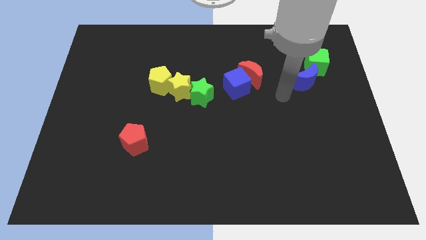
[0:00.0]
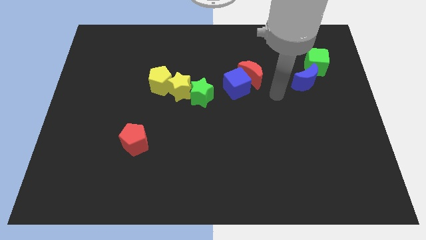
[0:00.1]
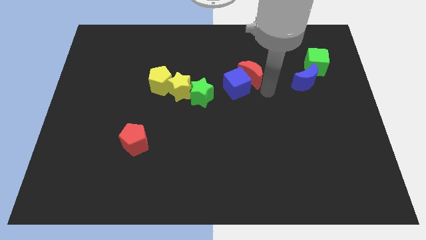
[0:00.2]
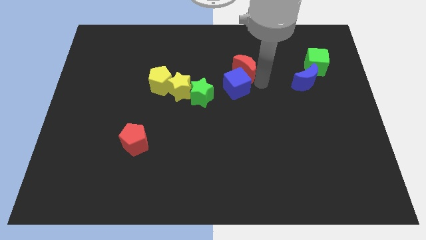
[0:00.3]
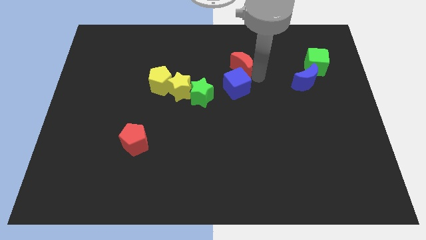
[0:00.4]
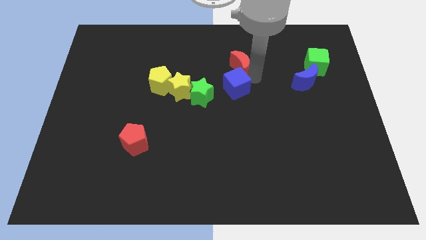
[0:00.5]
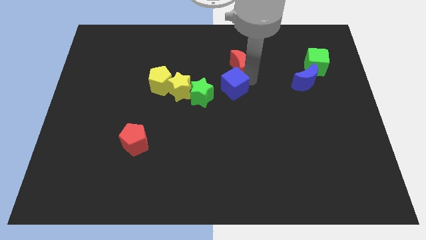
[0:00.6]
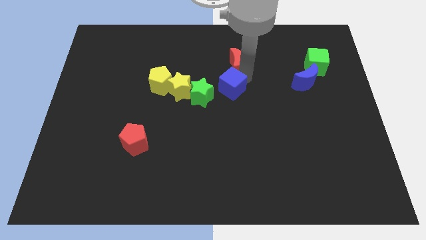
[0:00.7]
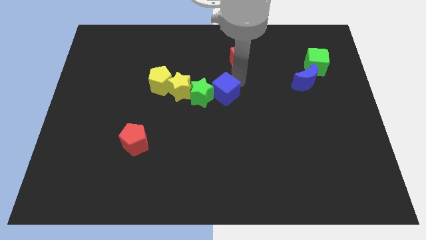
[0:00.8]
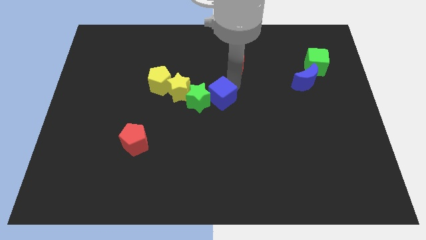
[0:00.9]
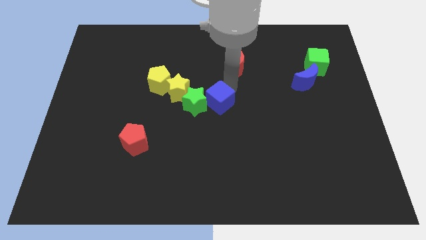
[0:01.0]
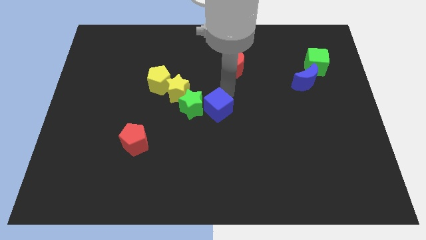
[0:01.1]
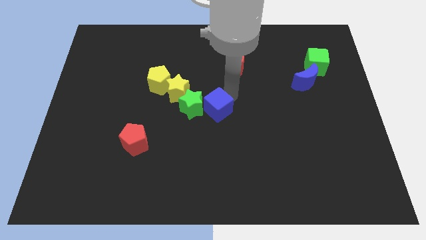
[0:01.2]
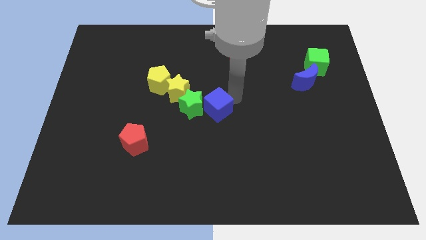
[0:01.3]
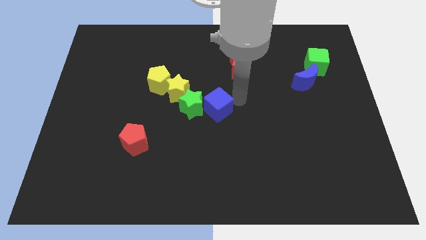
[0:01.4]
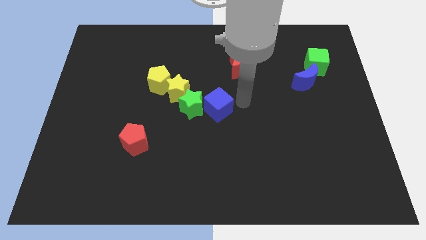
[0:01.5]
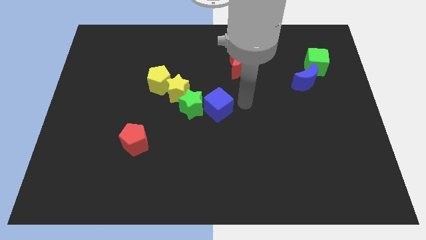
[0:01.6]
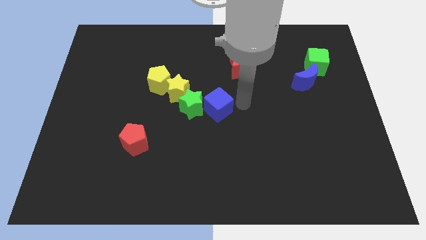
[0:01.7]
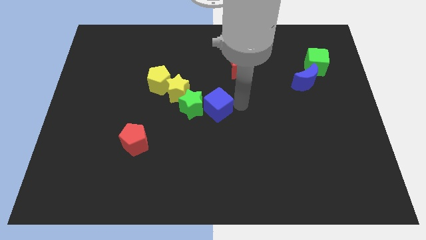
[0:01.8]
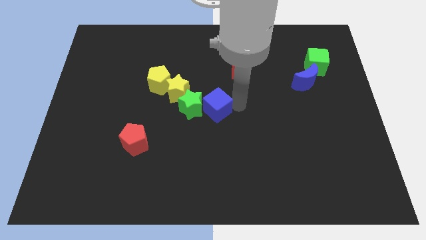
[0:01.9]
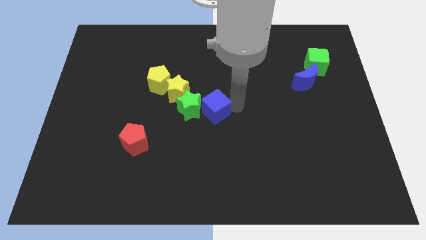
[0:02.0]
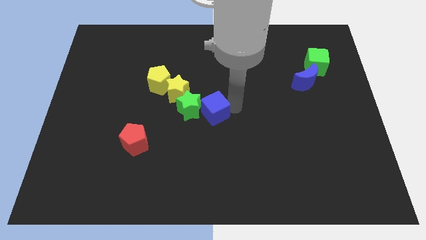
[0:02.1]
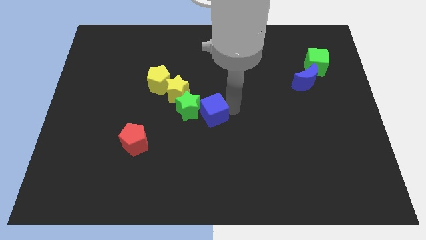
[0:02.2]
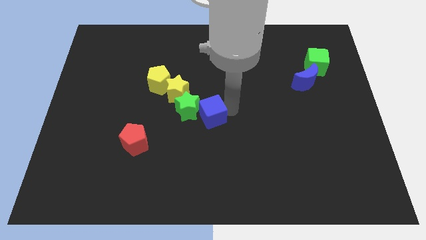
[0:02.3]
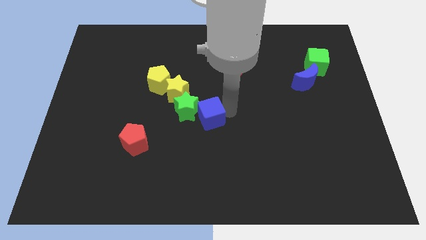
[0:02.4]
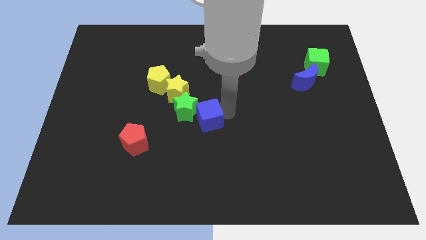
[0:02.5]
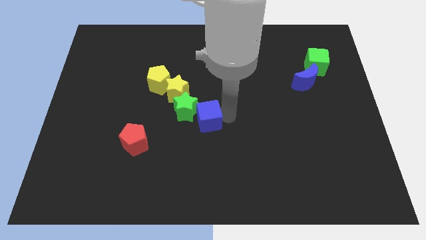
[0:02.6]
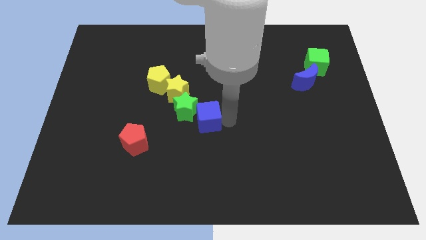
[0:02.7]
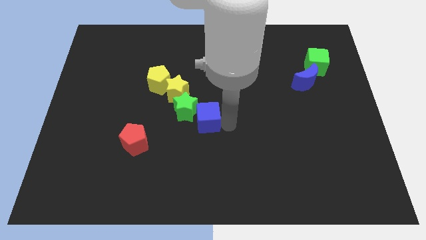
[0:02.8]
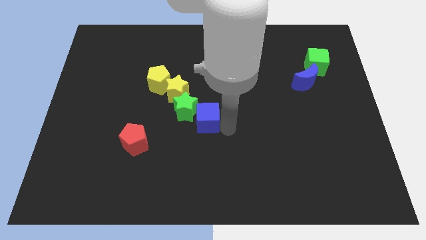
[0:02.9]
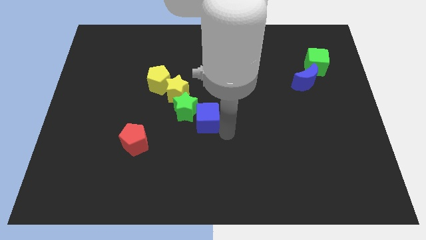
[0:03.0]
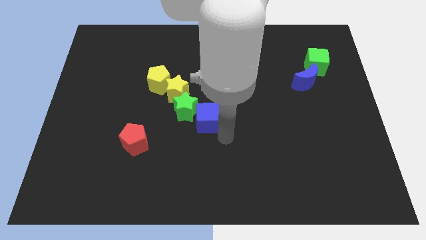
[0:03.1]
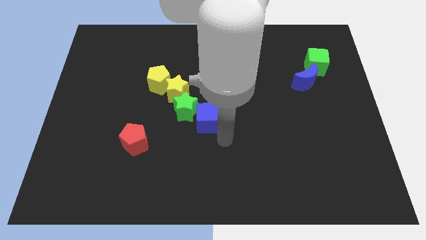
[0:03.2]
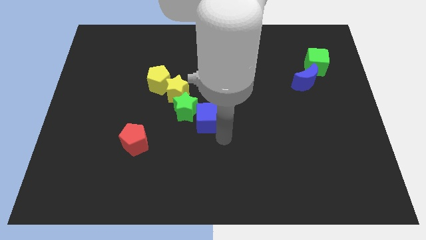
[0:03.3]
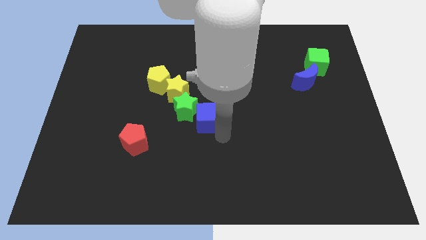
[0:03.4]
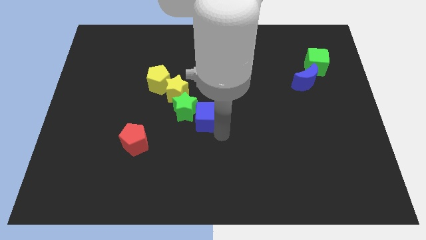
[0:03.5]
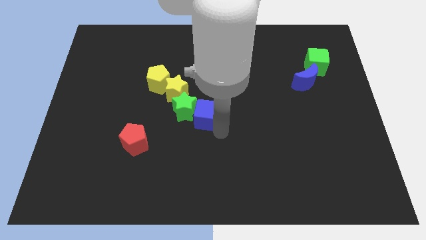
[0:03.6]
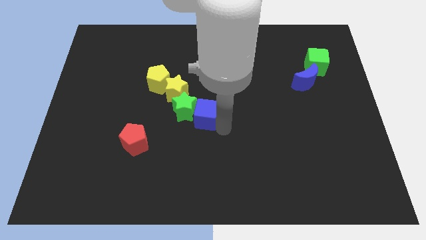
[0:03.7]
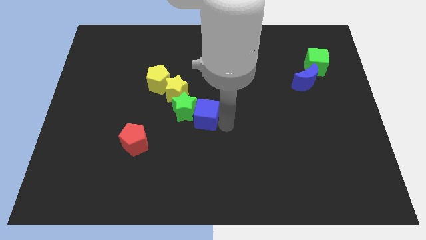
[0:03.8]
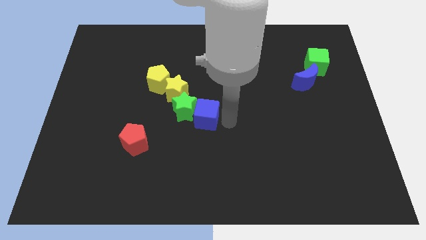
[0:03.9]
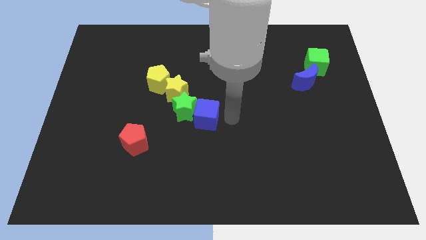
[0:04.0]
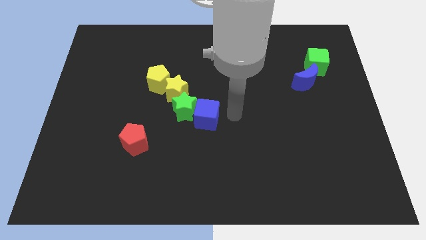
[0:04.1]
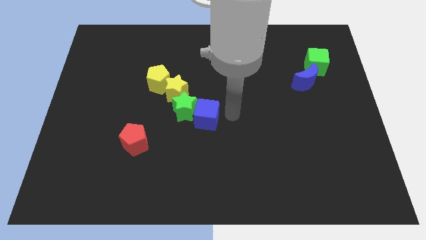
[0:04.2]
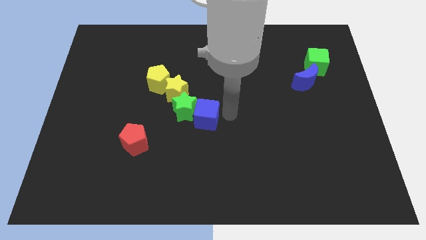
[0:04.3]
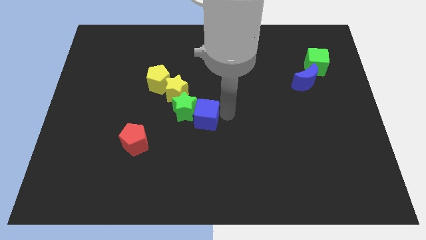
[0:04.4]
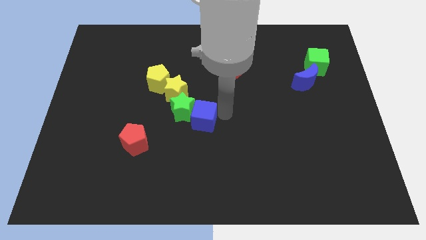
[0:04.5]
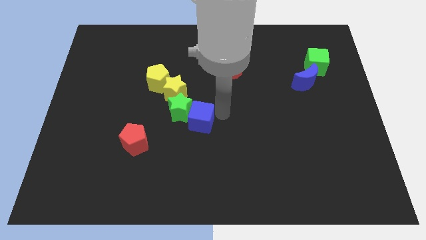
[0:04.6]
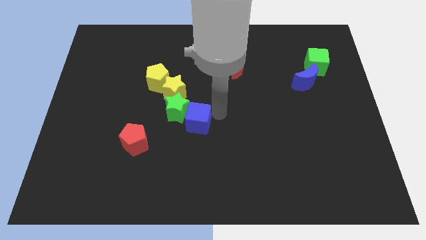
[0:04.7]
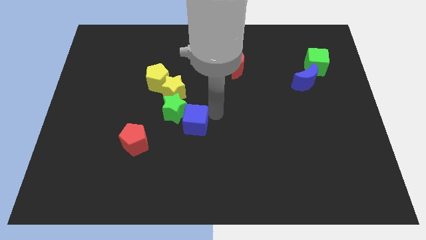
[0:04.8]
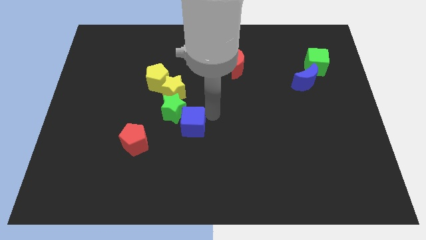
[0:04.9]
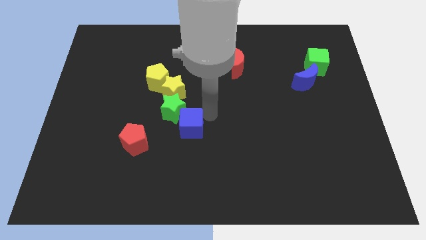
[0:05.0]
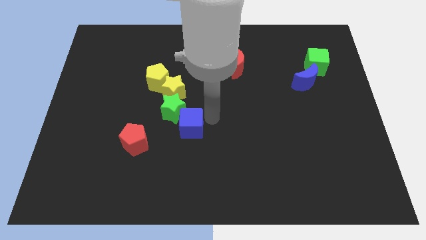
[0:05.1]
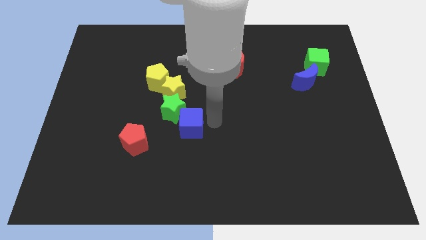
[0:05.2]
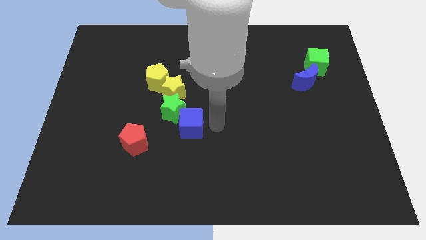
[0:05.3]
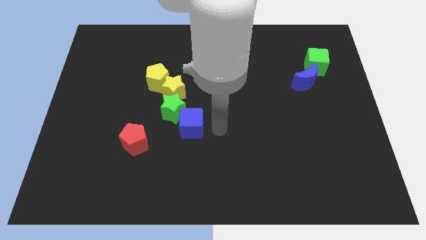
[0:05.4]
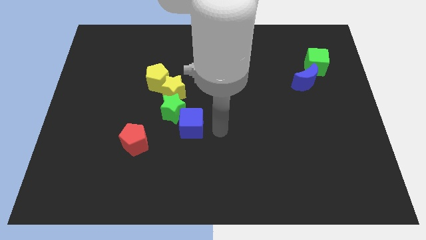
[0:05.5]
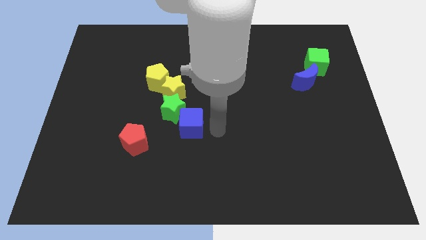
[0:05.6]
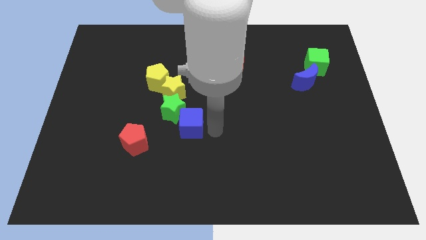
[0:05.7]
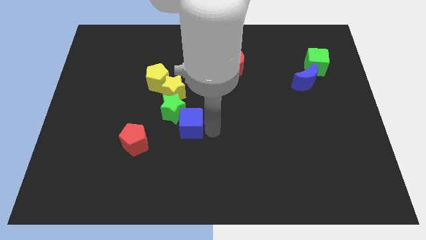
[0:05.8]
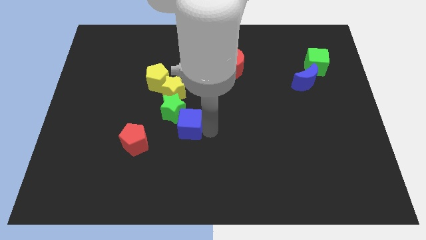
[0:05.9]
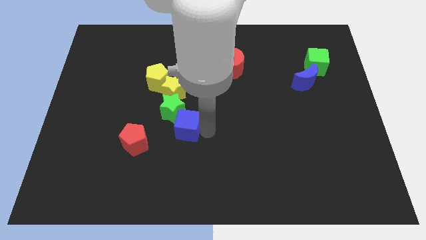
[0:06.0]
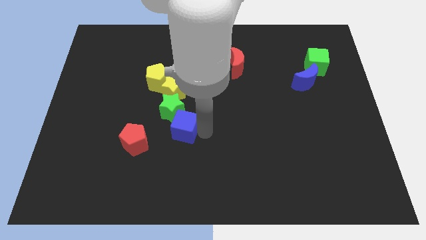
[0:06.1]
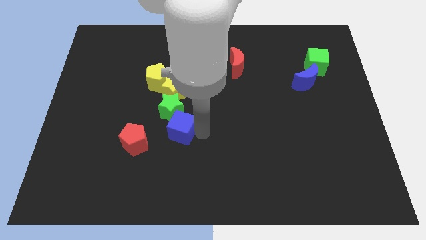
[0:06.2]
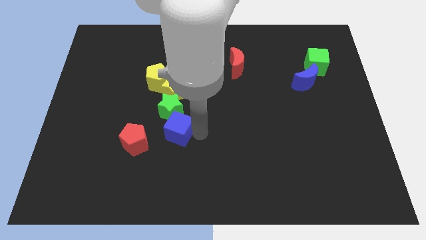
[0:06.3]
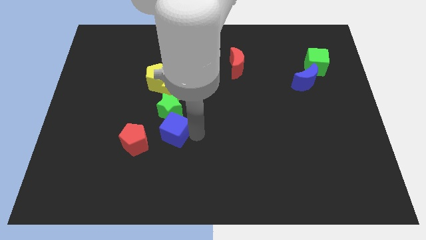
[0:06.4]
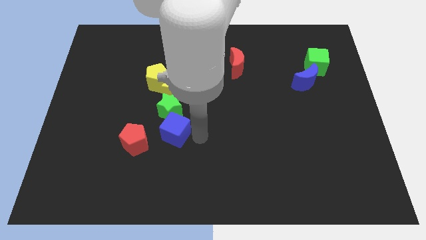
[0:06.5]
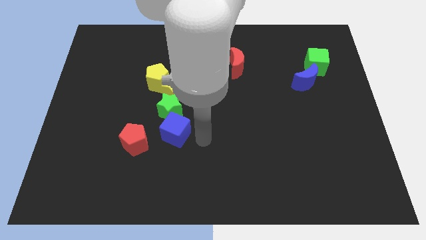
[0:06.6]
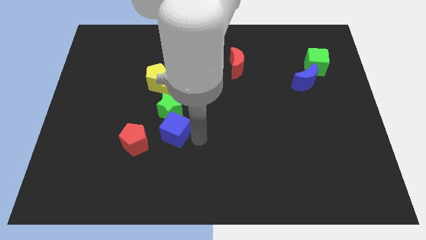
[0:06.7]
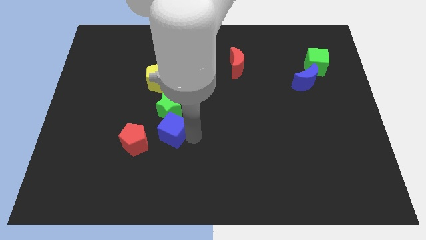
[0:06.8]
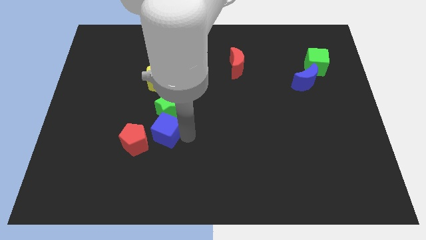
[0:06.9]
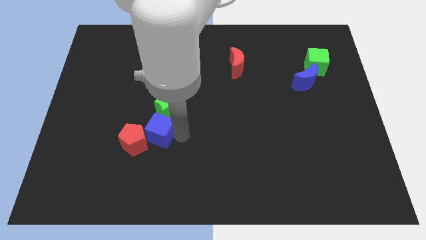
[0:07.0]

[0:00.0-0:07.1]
push the blue cube towards the red pentagon

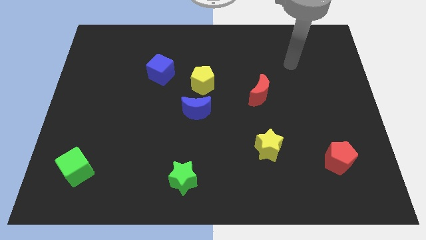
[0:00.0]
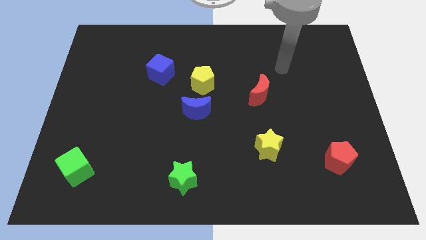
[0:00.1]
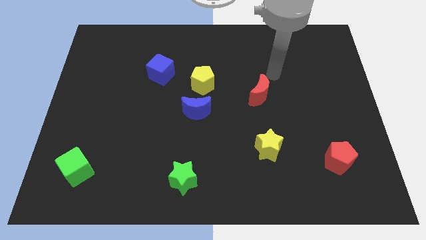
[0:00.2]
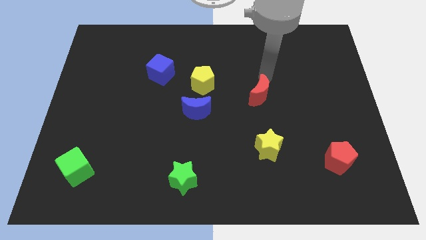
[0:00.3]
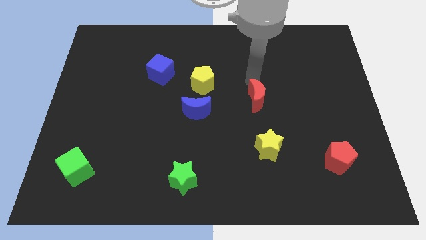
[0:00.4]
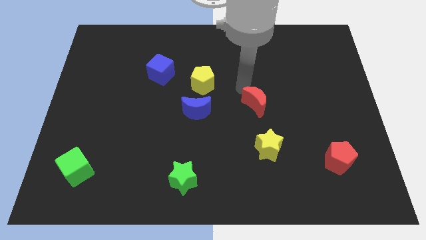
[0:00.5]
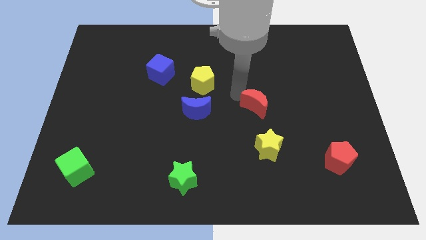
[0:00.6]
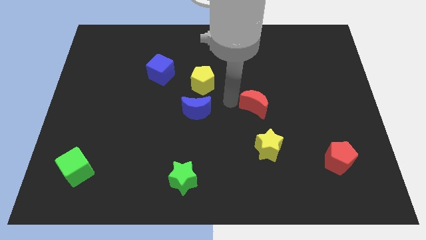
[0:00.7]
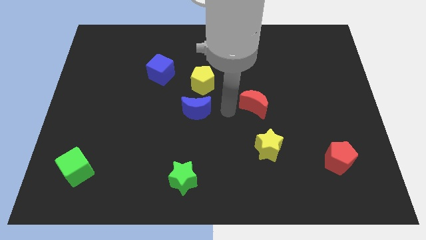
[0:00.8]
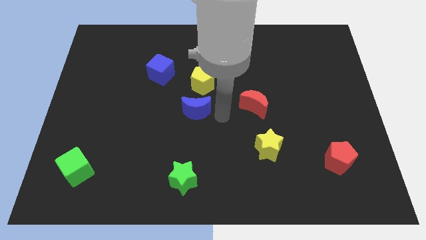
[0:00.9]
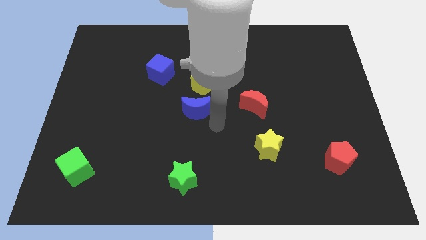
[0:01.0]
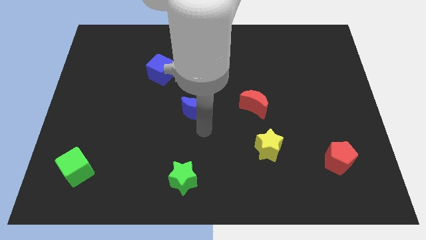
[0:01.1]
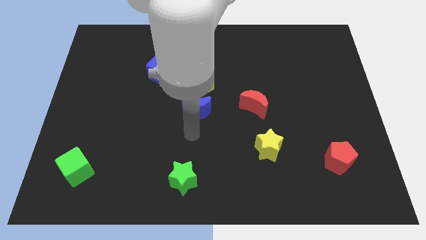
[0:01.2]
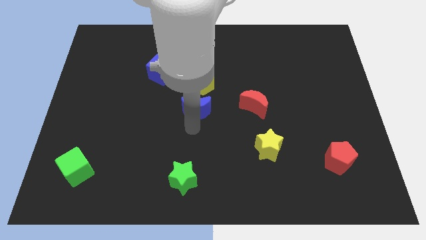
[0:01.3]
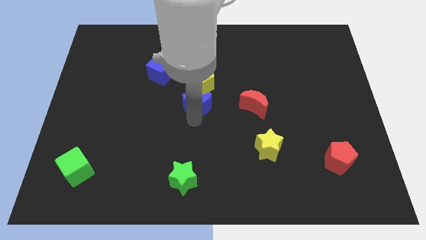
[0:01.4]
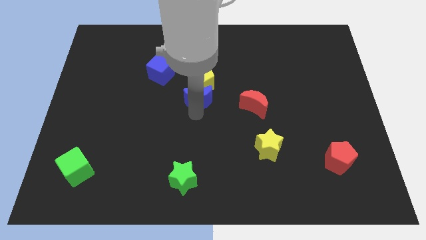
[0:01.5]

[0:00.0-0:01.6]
slide the blue moon towards the yellow pentagon
